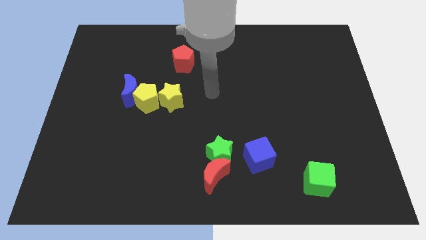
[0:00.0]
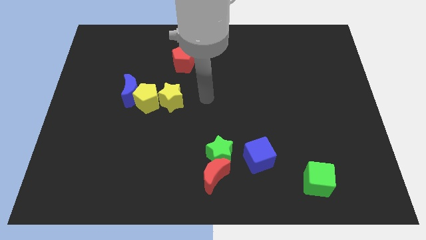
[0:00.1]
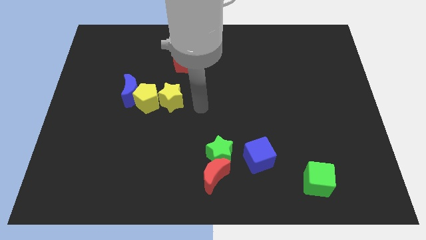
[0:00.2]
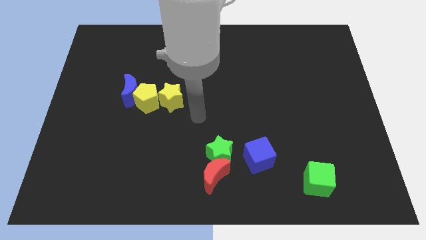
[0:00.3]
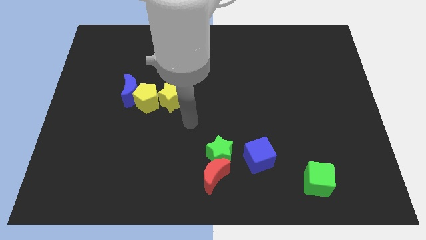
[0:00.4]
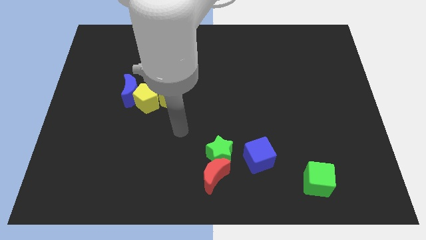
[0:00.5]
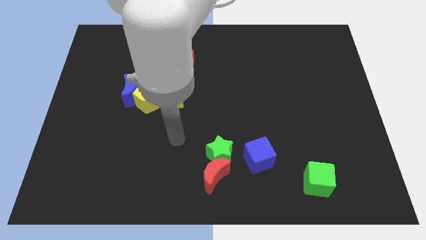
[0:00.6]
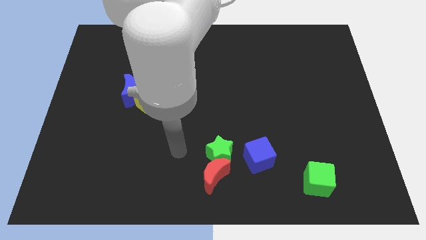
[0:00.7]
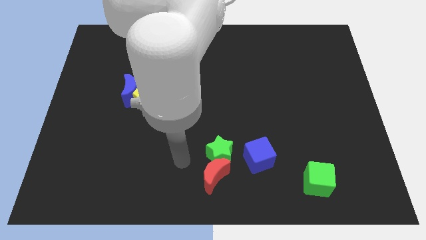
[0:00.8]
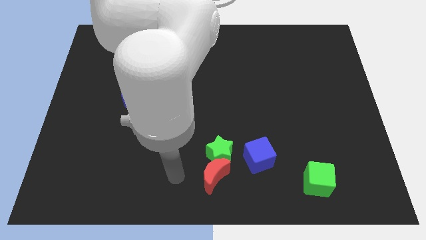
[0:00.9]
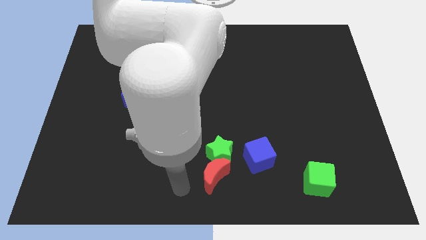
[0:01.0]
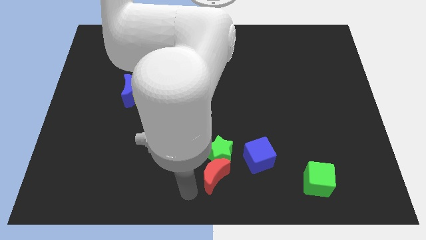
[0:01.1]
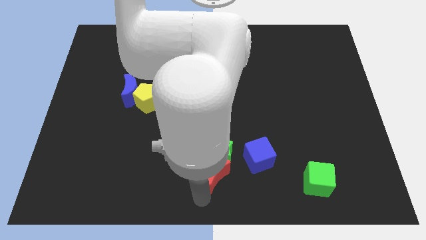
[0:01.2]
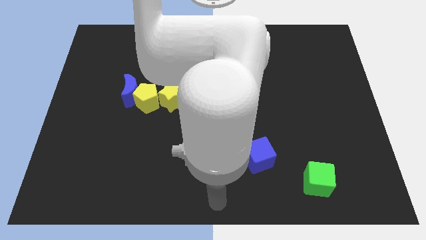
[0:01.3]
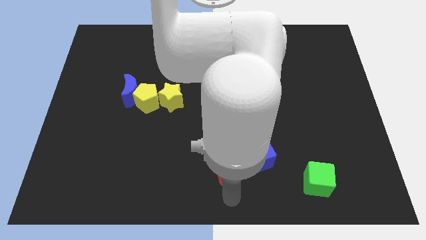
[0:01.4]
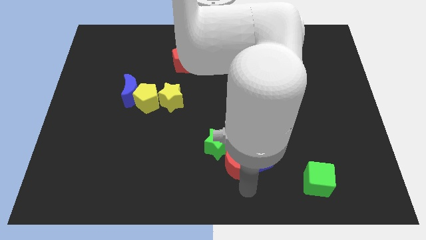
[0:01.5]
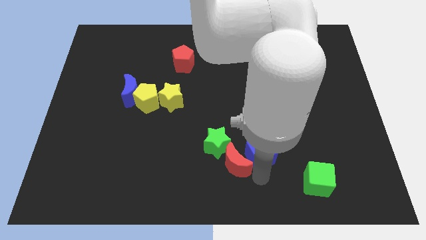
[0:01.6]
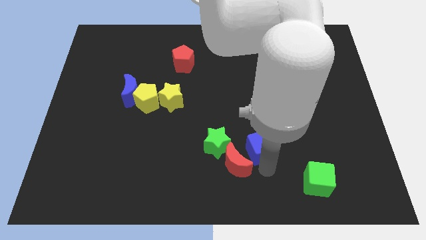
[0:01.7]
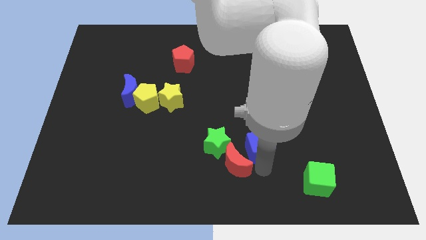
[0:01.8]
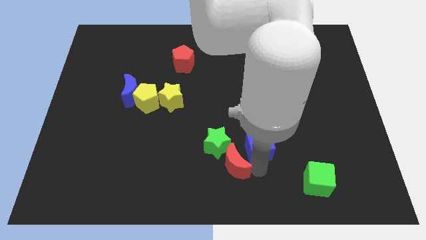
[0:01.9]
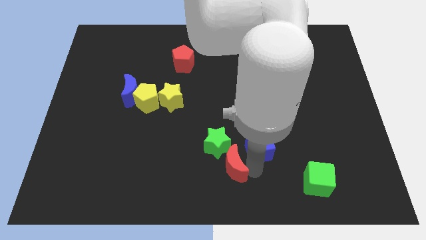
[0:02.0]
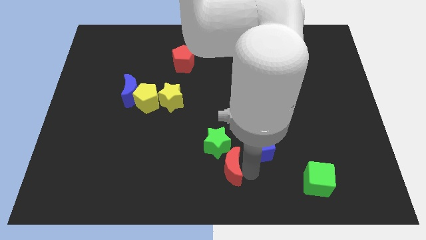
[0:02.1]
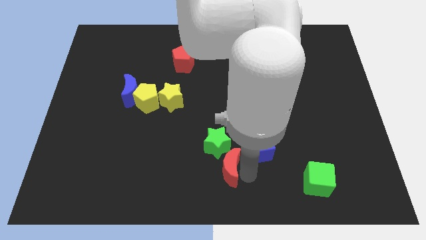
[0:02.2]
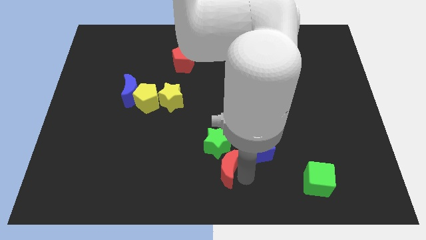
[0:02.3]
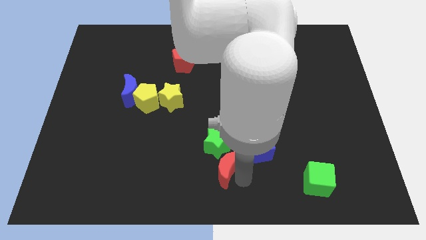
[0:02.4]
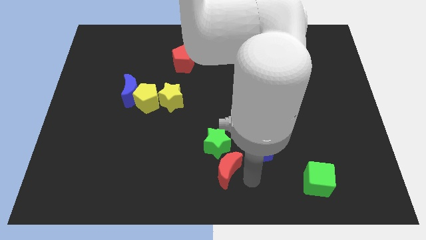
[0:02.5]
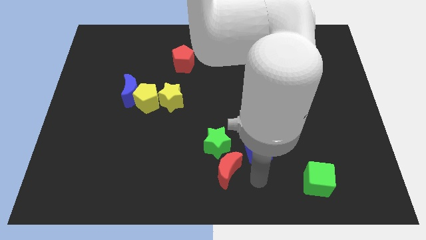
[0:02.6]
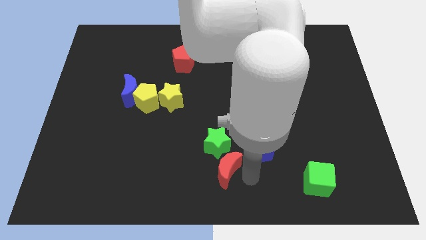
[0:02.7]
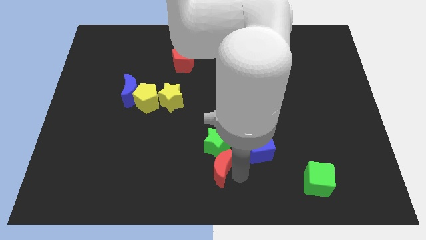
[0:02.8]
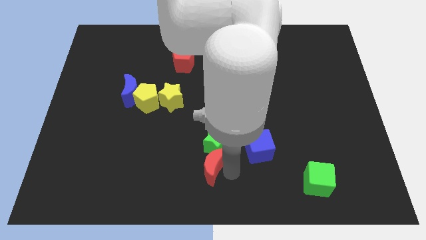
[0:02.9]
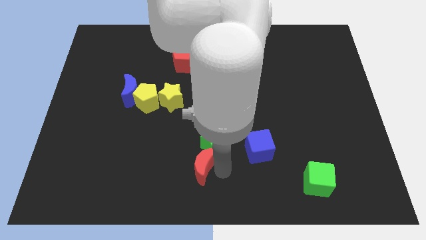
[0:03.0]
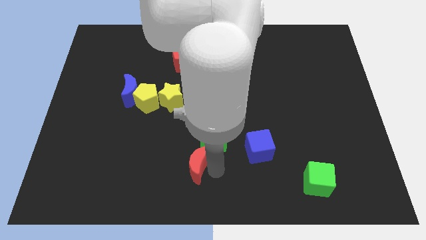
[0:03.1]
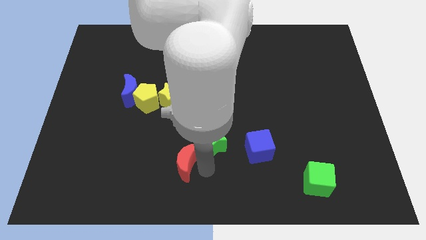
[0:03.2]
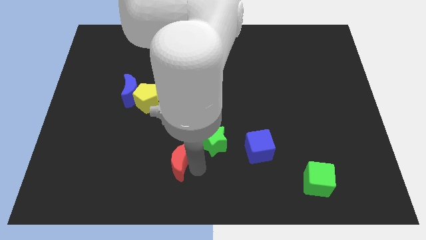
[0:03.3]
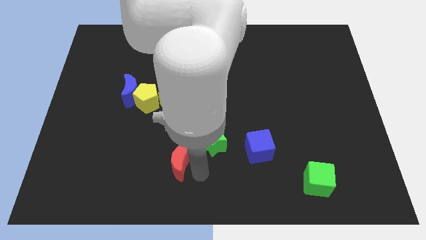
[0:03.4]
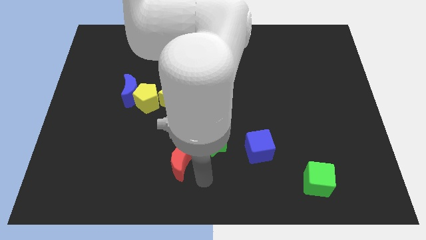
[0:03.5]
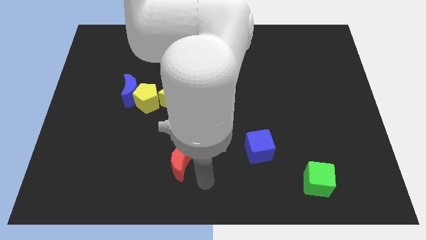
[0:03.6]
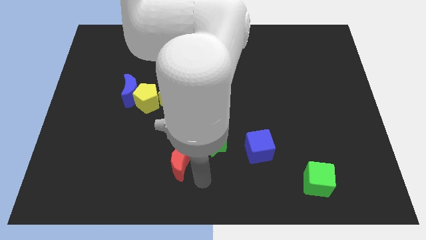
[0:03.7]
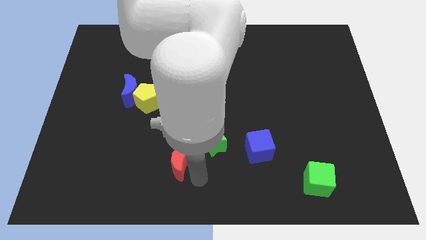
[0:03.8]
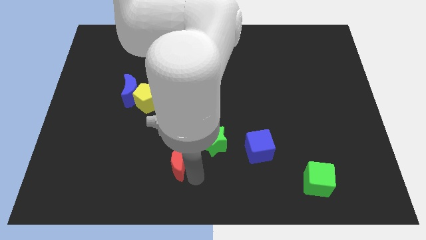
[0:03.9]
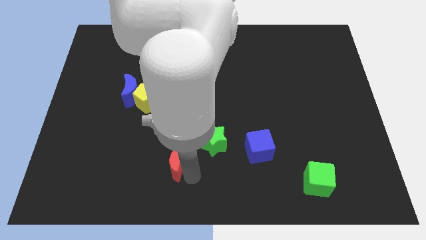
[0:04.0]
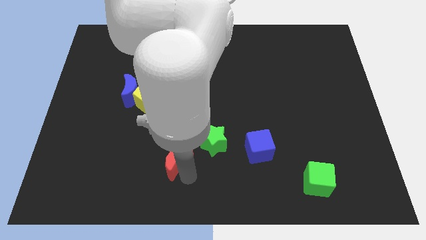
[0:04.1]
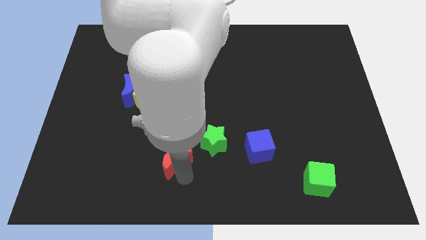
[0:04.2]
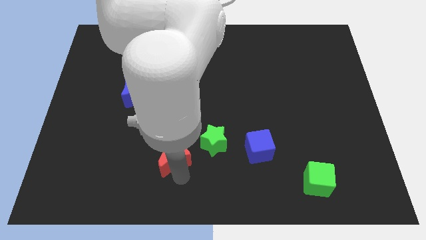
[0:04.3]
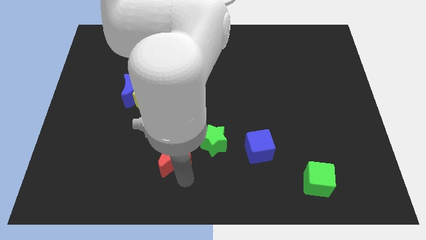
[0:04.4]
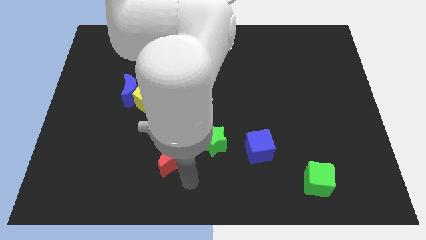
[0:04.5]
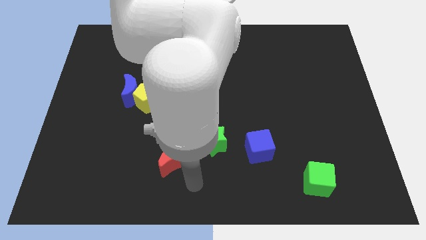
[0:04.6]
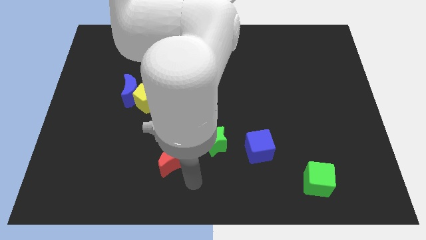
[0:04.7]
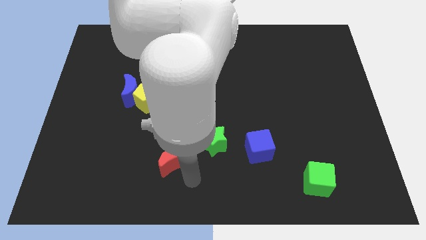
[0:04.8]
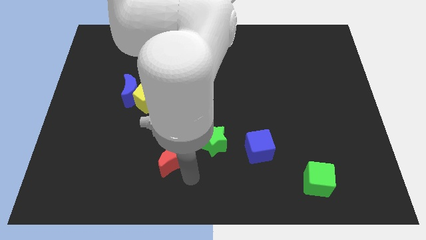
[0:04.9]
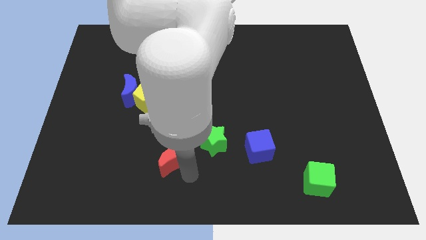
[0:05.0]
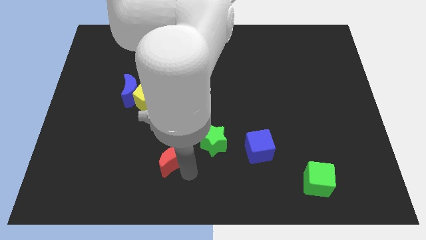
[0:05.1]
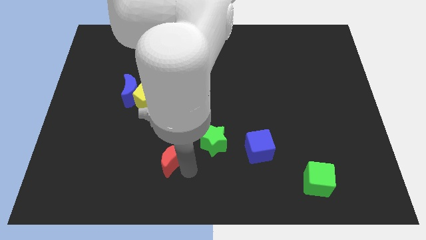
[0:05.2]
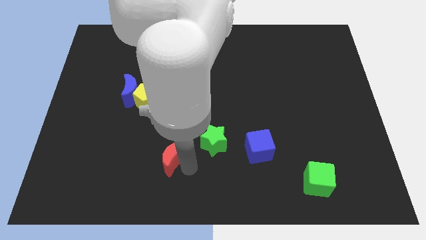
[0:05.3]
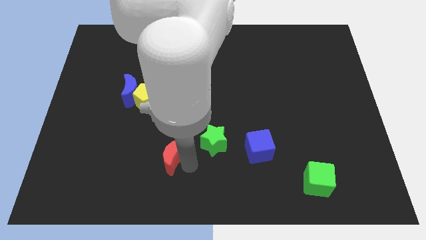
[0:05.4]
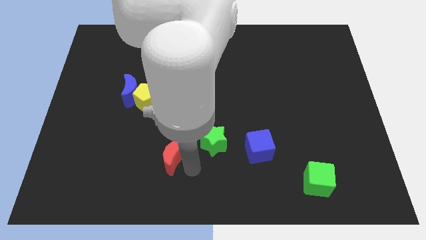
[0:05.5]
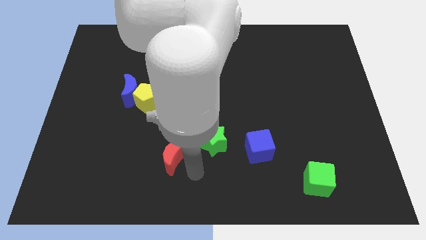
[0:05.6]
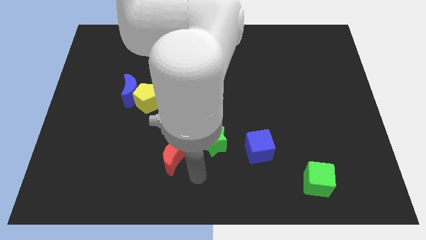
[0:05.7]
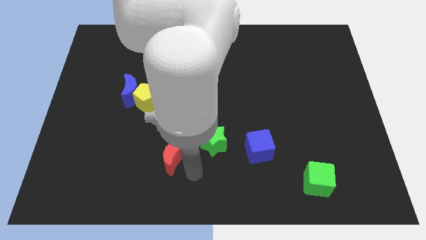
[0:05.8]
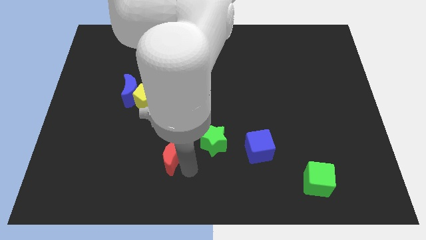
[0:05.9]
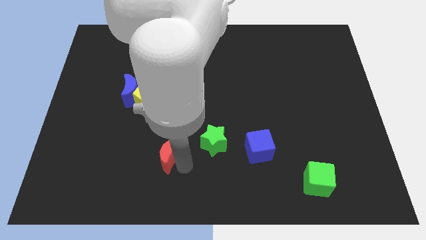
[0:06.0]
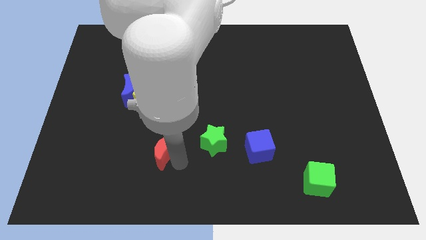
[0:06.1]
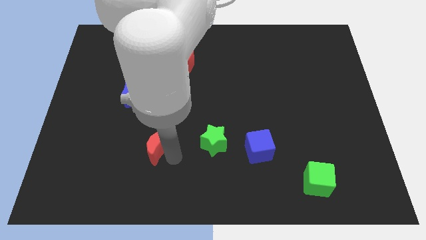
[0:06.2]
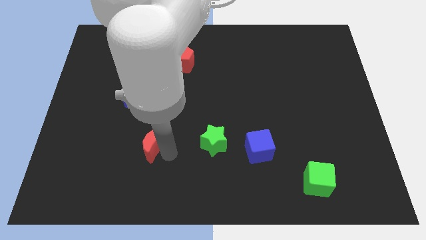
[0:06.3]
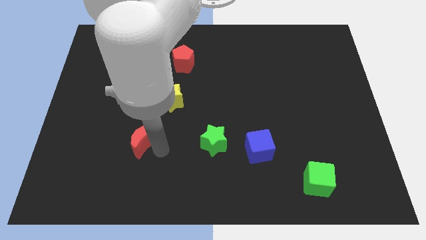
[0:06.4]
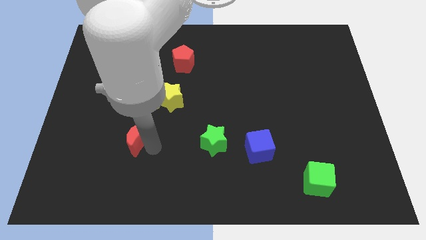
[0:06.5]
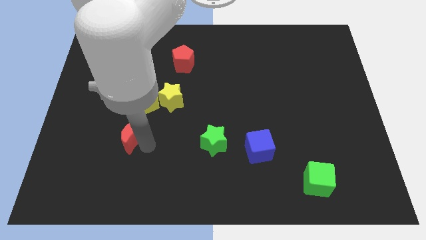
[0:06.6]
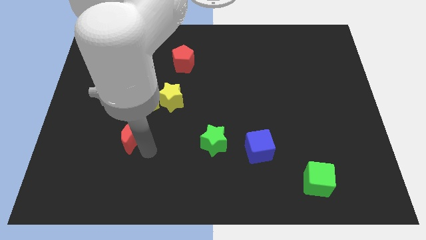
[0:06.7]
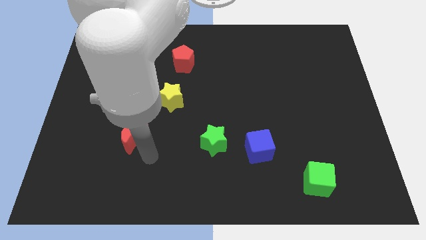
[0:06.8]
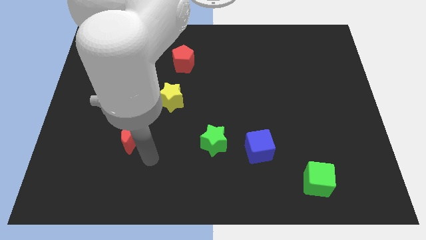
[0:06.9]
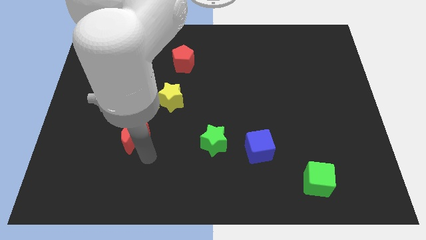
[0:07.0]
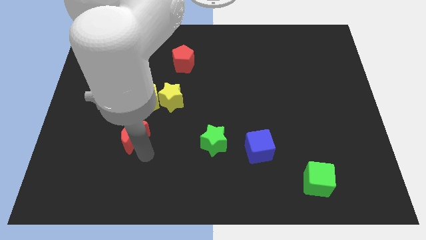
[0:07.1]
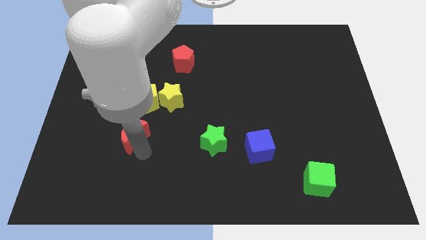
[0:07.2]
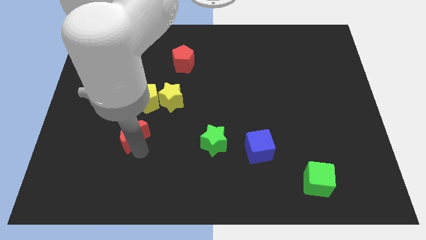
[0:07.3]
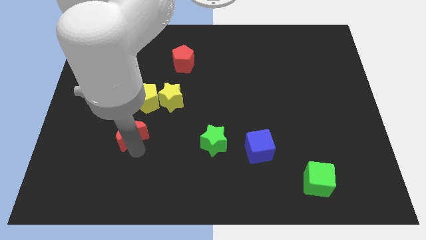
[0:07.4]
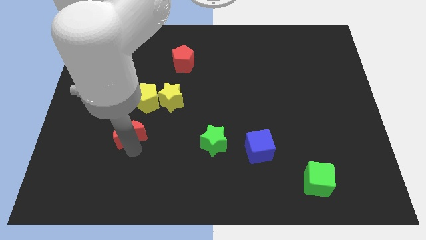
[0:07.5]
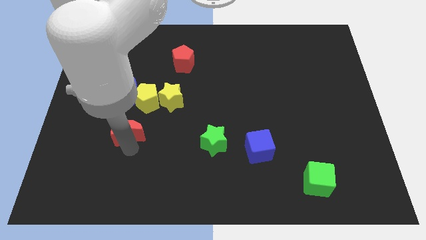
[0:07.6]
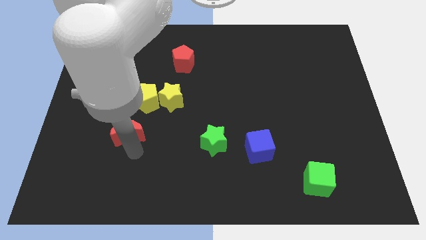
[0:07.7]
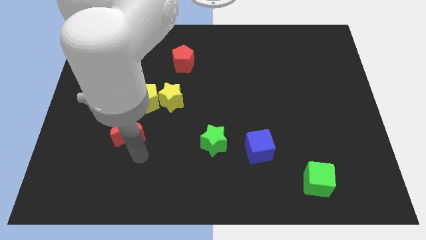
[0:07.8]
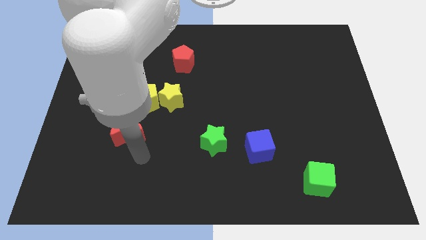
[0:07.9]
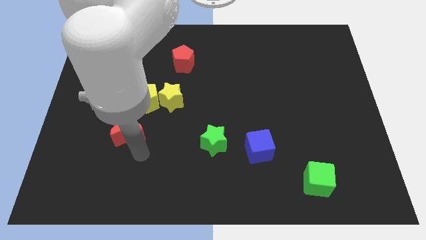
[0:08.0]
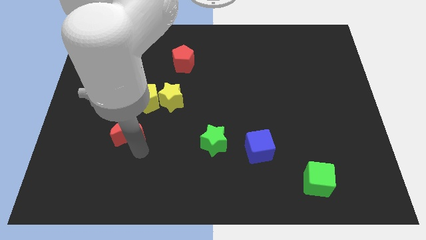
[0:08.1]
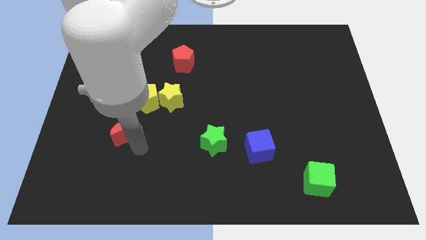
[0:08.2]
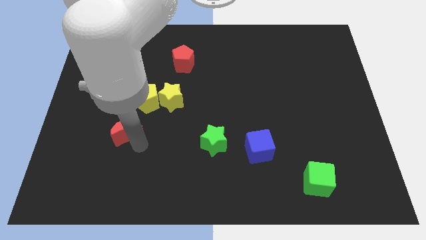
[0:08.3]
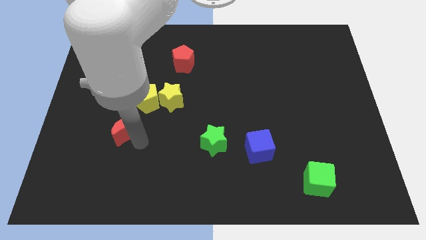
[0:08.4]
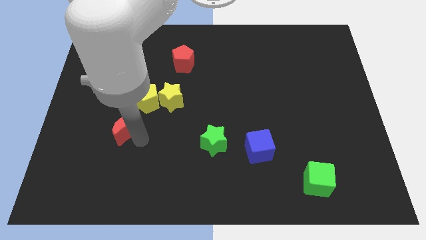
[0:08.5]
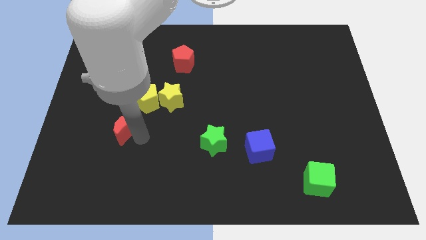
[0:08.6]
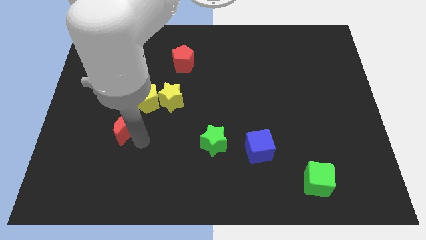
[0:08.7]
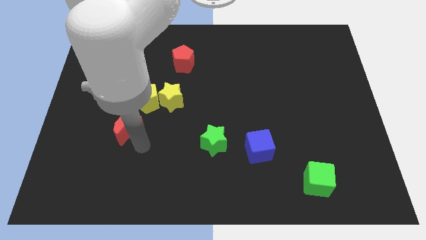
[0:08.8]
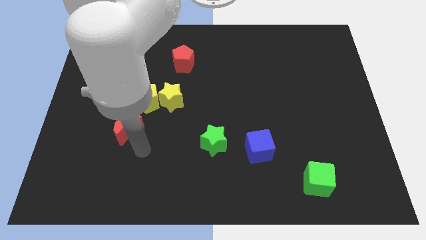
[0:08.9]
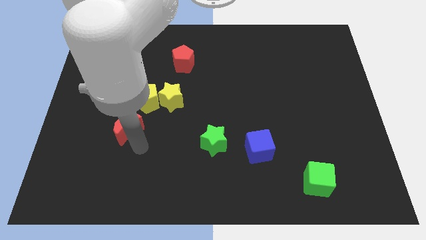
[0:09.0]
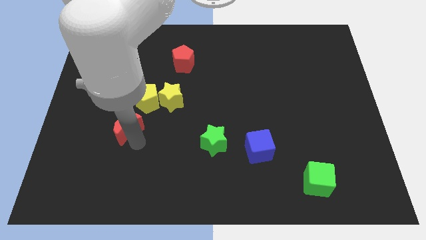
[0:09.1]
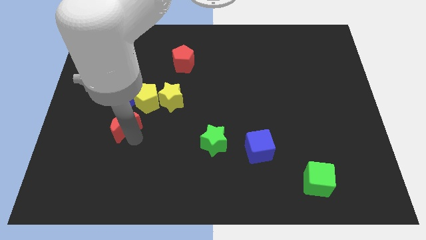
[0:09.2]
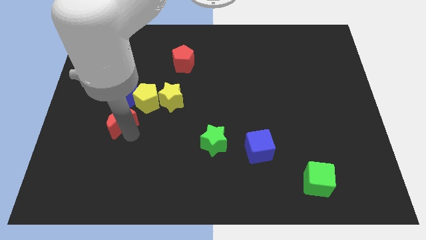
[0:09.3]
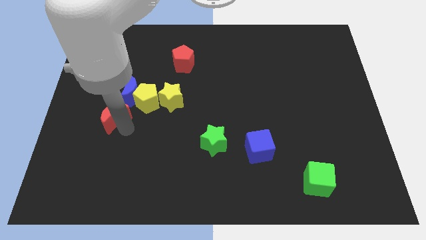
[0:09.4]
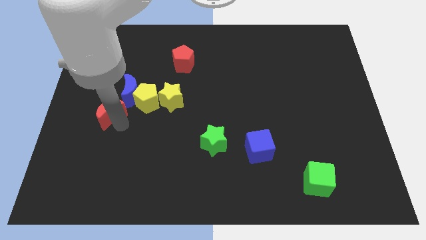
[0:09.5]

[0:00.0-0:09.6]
slide the red moon just left of the yellow pentagon
